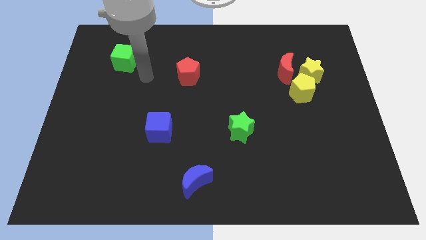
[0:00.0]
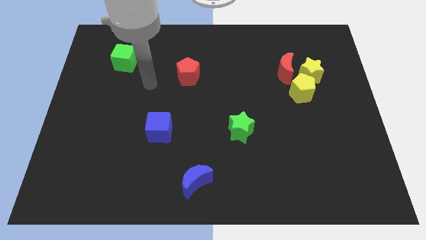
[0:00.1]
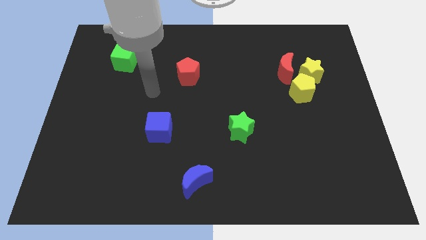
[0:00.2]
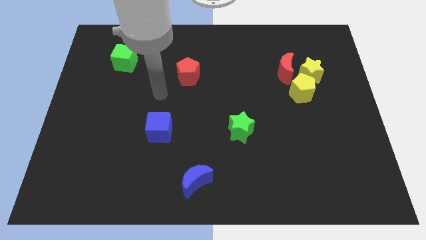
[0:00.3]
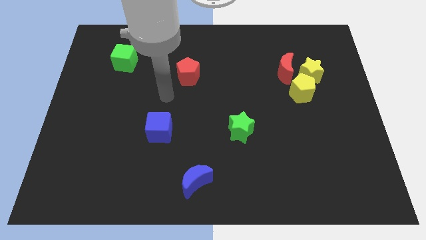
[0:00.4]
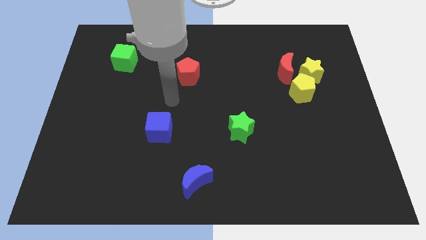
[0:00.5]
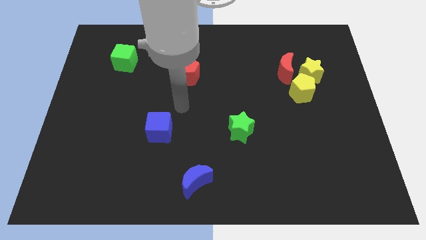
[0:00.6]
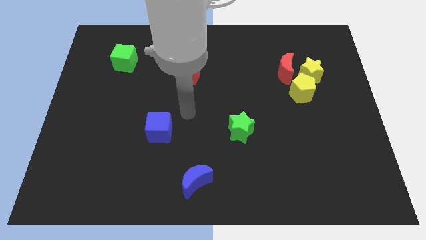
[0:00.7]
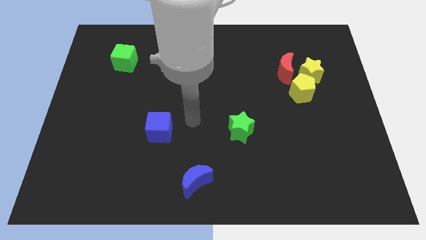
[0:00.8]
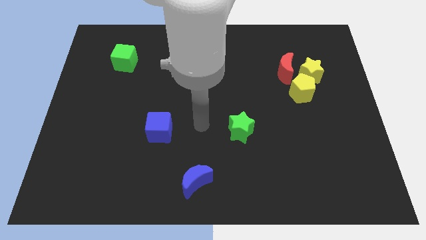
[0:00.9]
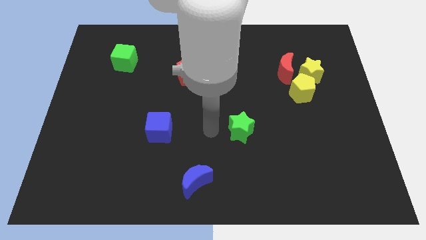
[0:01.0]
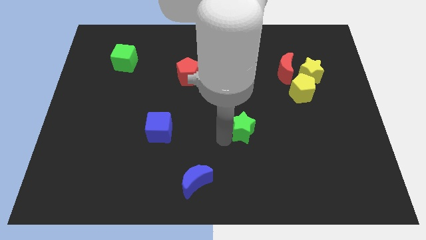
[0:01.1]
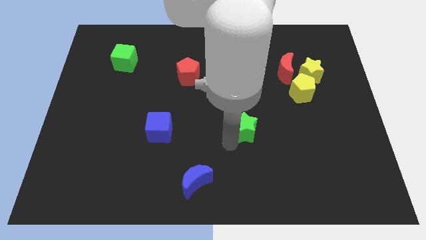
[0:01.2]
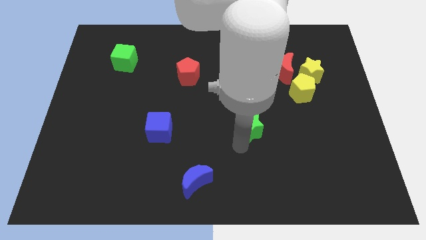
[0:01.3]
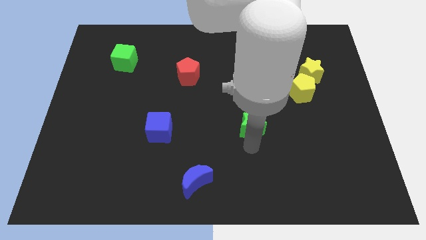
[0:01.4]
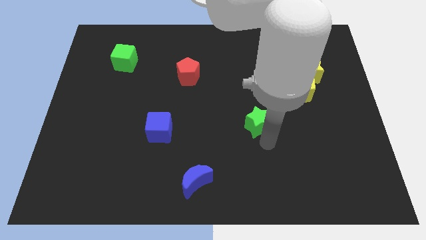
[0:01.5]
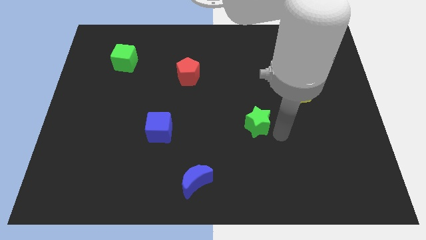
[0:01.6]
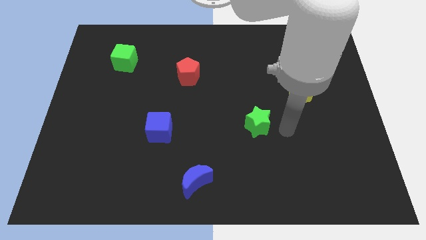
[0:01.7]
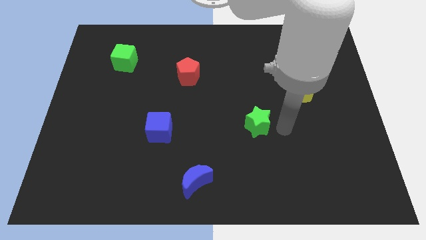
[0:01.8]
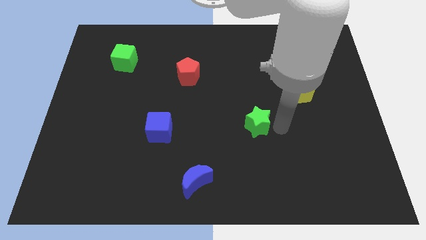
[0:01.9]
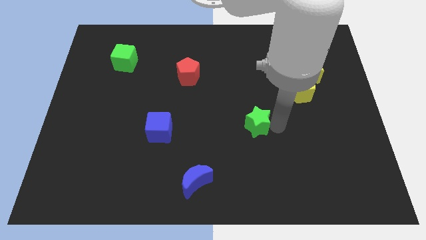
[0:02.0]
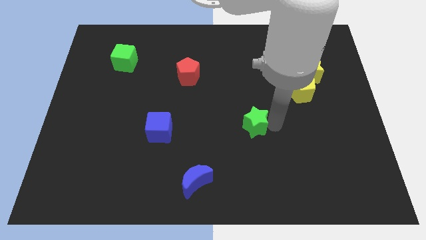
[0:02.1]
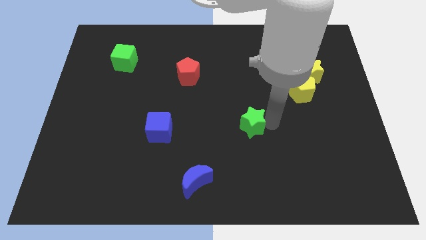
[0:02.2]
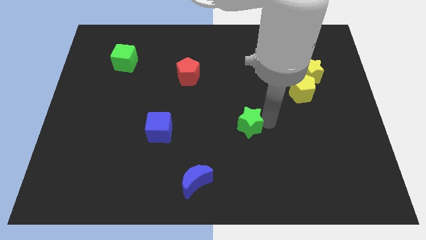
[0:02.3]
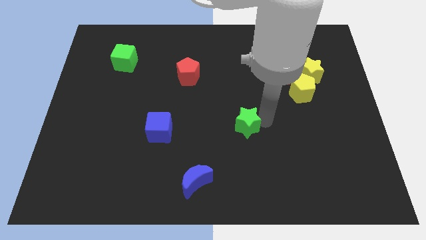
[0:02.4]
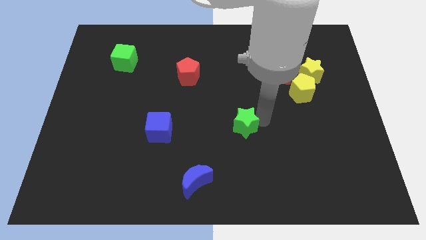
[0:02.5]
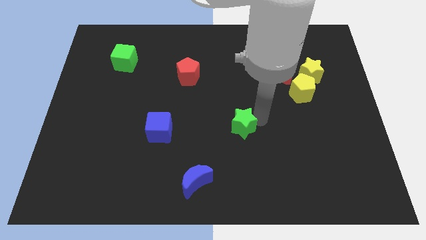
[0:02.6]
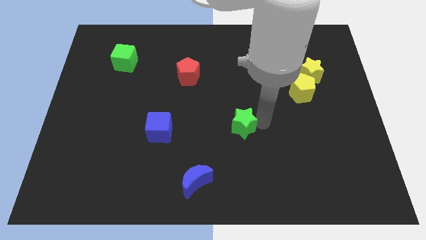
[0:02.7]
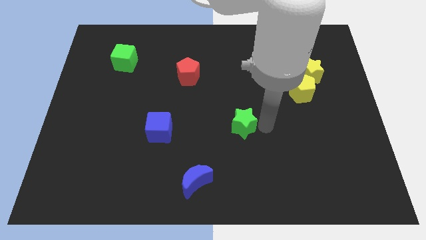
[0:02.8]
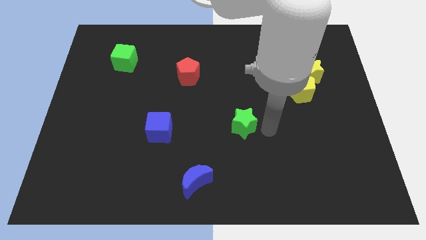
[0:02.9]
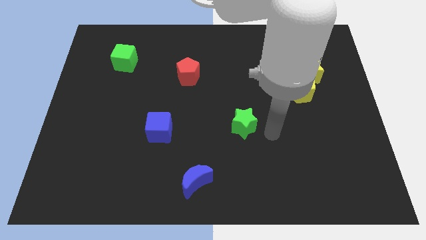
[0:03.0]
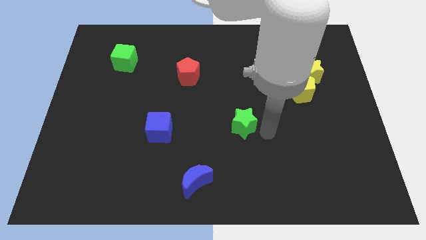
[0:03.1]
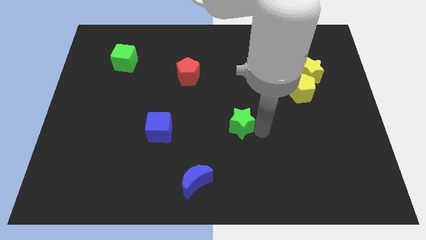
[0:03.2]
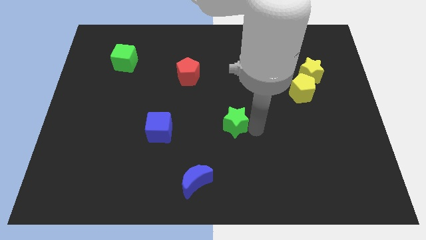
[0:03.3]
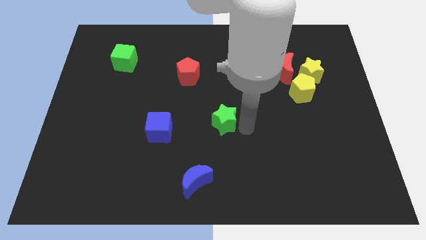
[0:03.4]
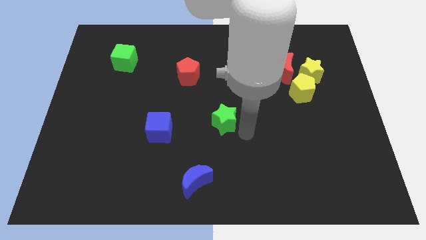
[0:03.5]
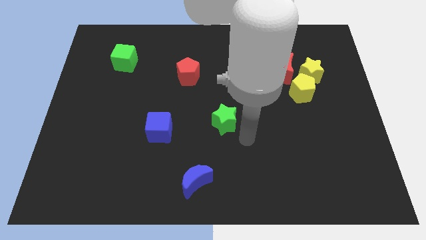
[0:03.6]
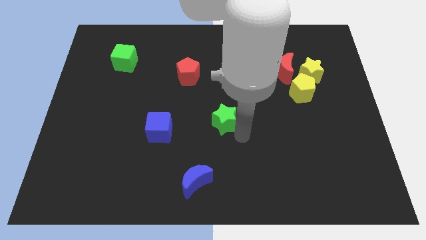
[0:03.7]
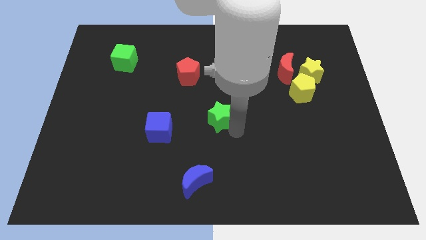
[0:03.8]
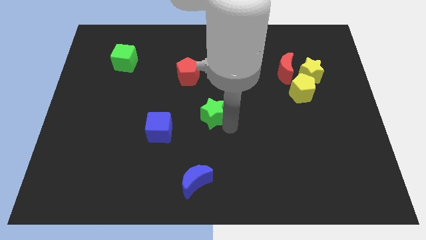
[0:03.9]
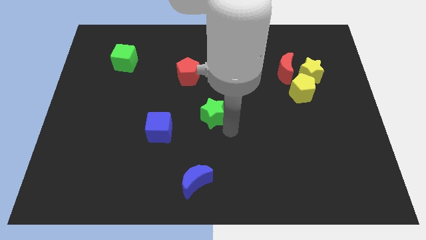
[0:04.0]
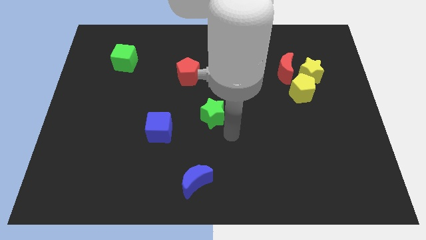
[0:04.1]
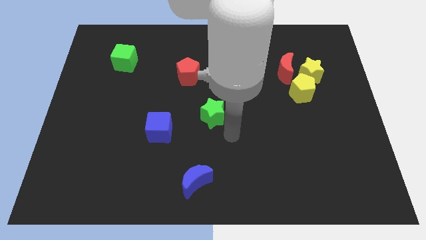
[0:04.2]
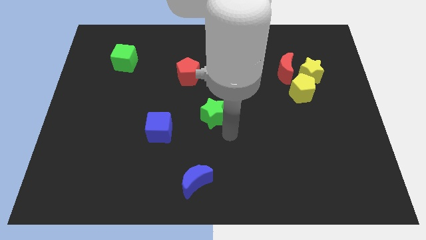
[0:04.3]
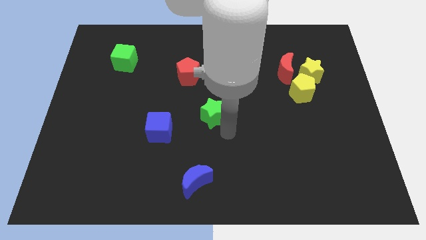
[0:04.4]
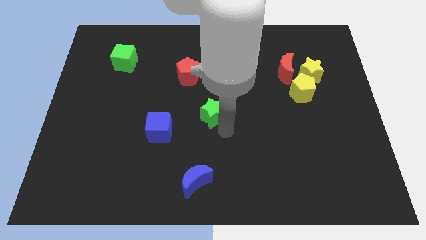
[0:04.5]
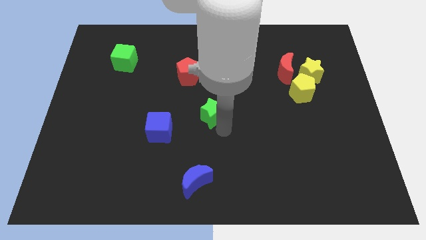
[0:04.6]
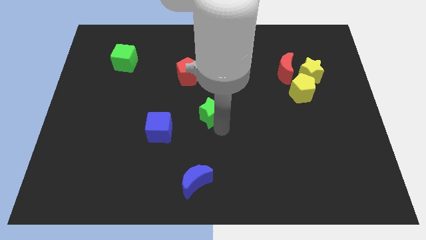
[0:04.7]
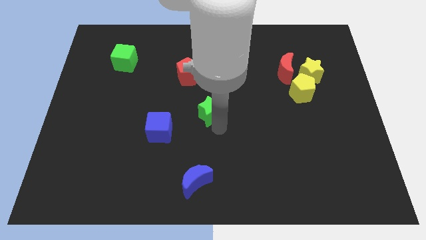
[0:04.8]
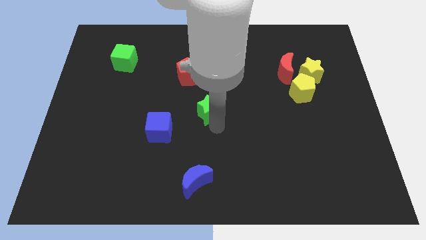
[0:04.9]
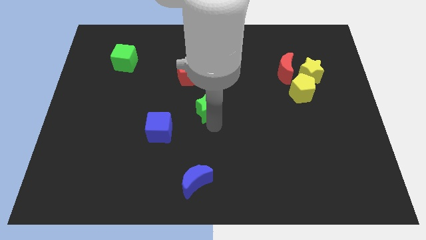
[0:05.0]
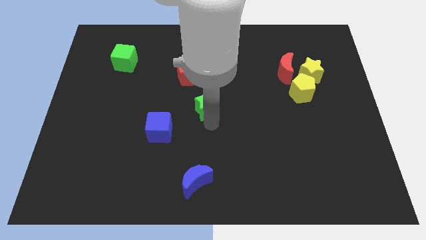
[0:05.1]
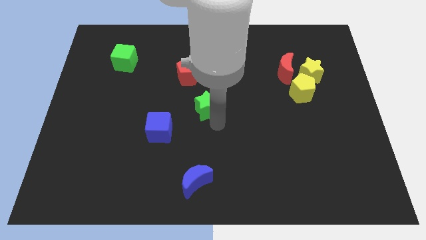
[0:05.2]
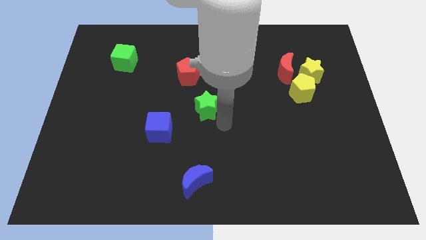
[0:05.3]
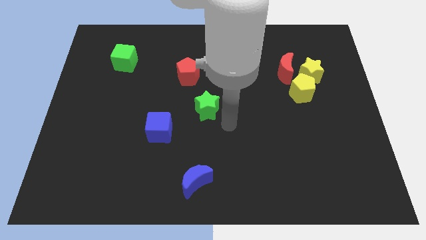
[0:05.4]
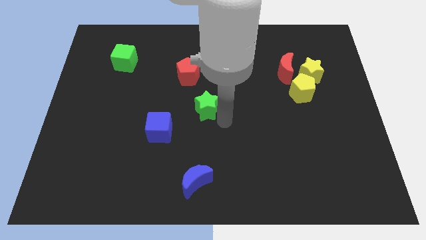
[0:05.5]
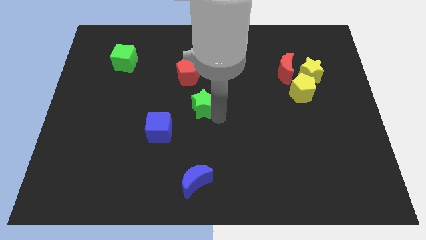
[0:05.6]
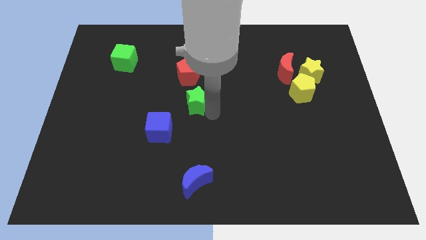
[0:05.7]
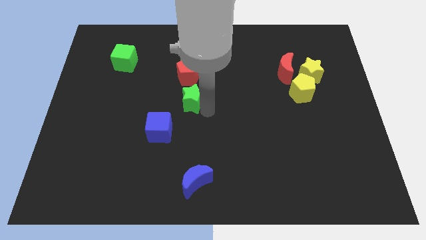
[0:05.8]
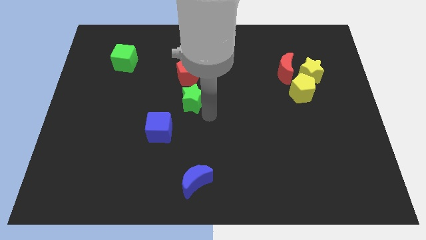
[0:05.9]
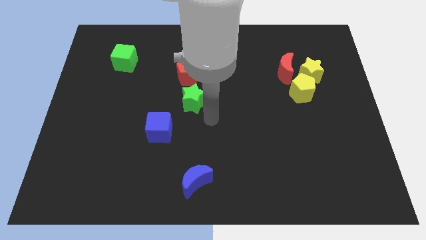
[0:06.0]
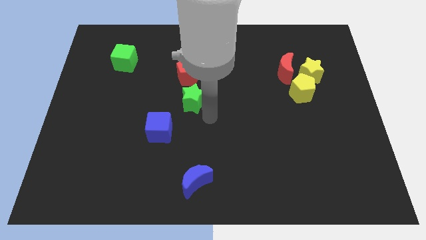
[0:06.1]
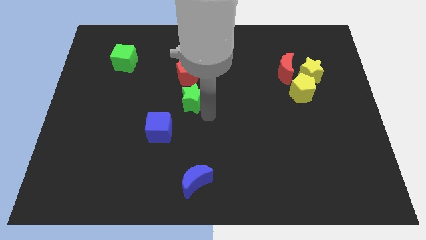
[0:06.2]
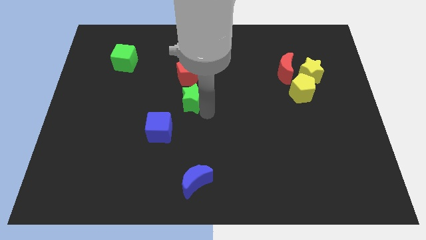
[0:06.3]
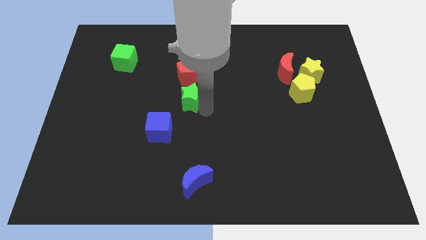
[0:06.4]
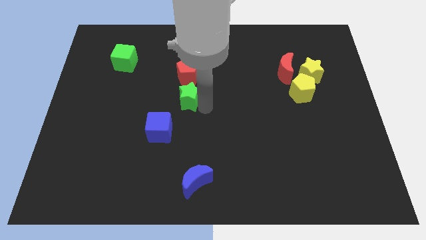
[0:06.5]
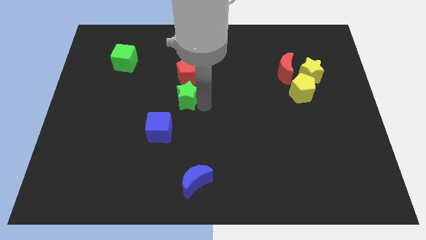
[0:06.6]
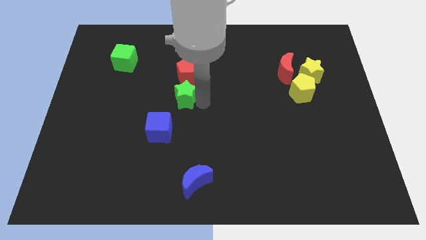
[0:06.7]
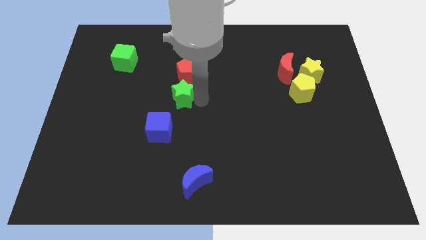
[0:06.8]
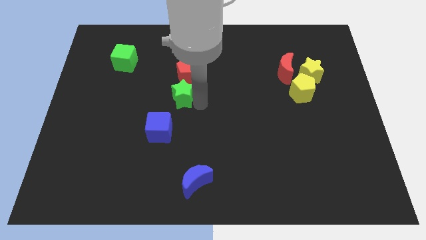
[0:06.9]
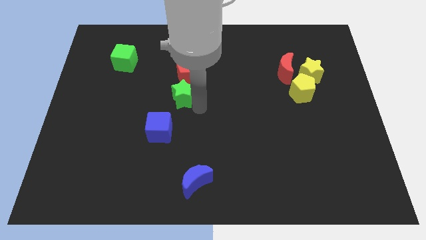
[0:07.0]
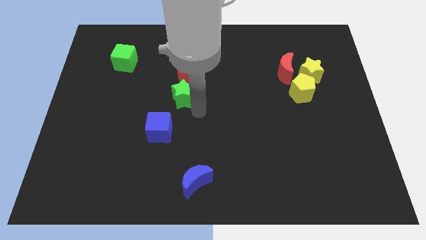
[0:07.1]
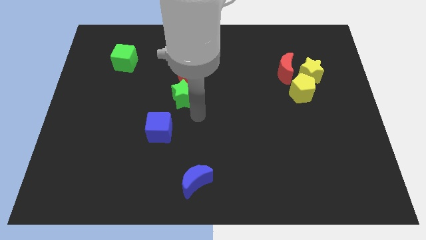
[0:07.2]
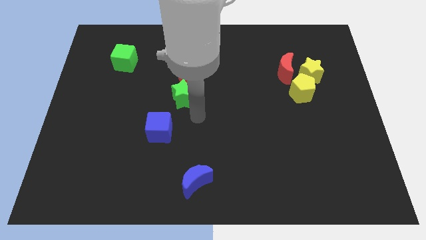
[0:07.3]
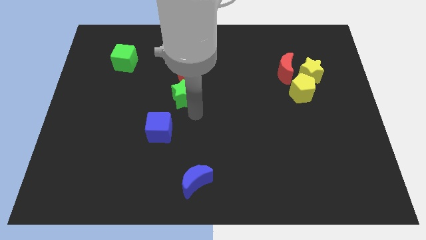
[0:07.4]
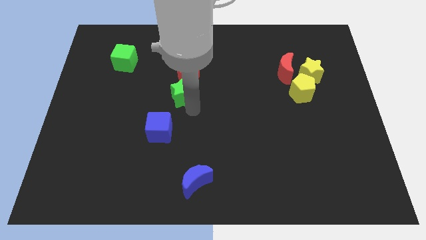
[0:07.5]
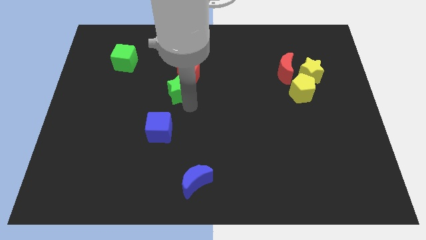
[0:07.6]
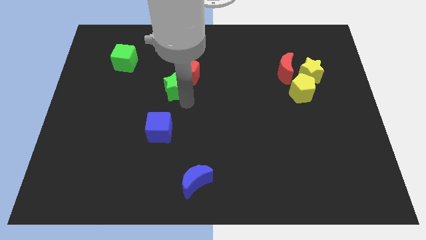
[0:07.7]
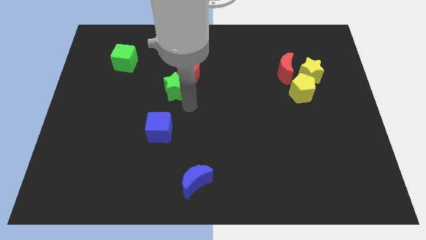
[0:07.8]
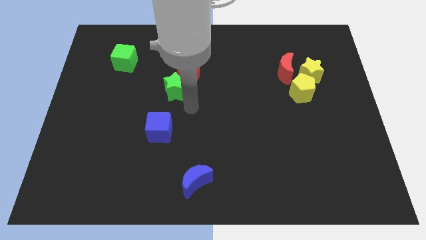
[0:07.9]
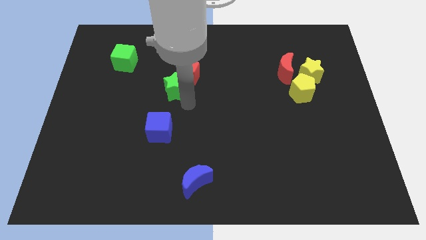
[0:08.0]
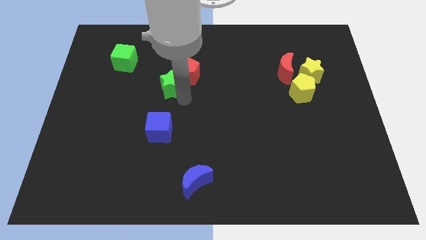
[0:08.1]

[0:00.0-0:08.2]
slide the green star up and to the left diagonally
